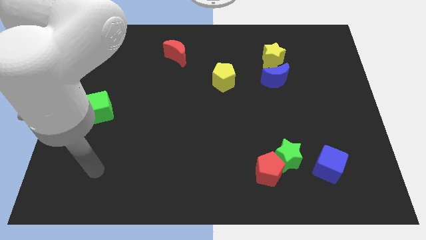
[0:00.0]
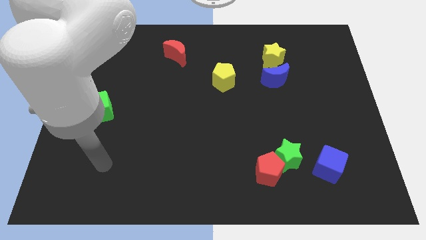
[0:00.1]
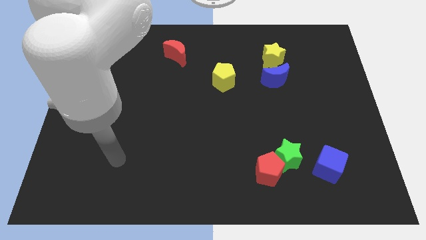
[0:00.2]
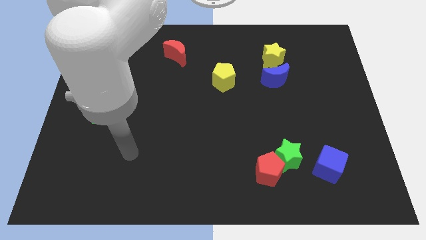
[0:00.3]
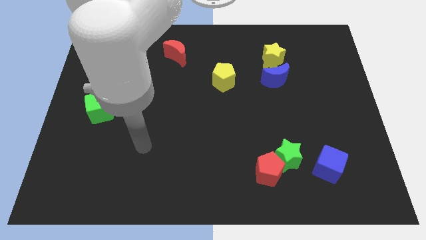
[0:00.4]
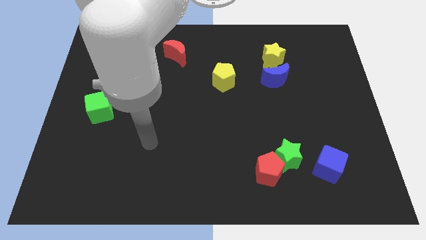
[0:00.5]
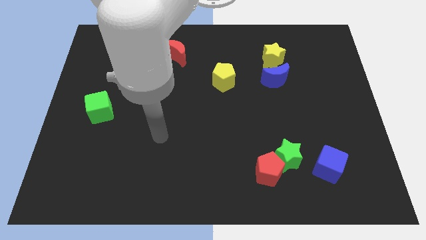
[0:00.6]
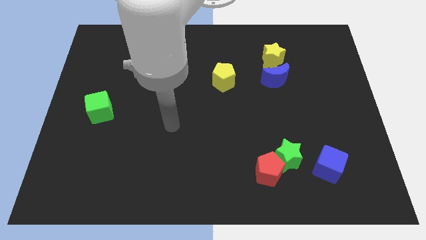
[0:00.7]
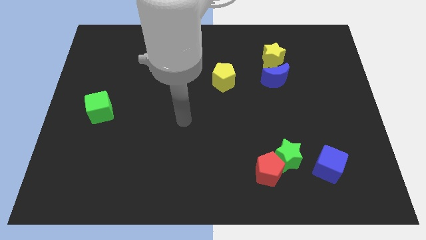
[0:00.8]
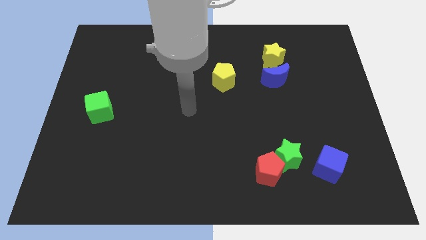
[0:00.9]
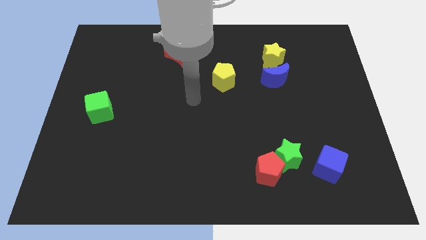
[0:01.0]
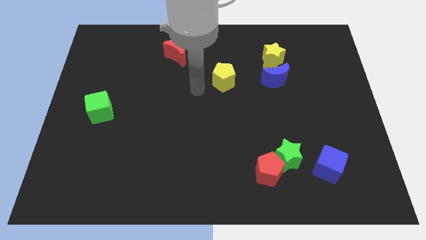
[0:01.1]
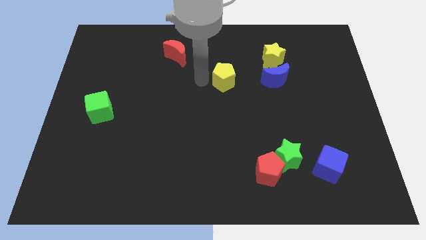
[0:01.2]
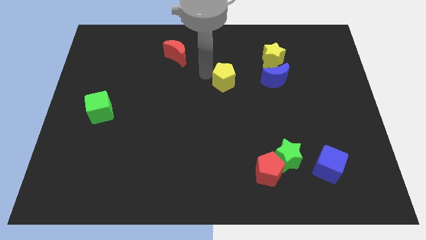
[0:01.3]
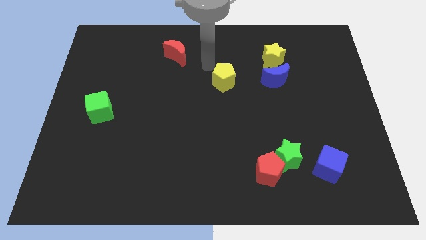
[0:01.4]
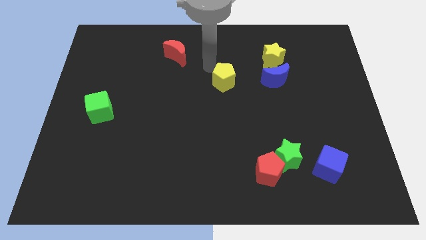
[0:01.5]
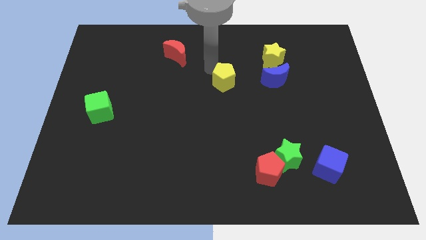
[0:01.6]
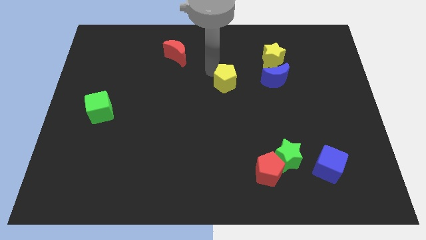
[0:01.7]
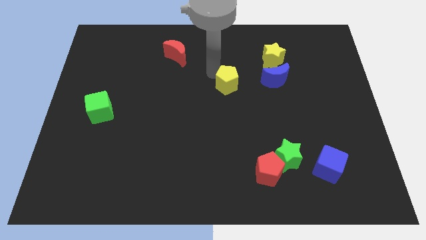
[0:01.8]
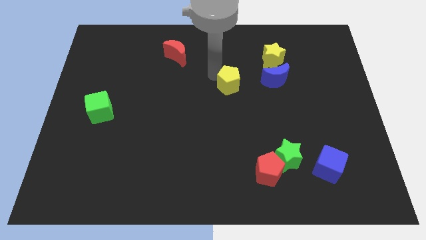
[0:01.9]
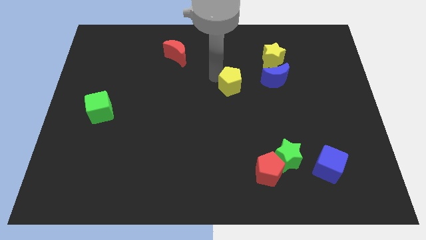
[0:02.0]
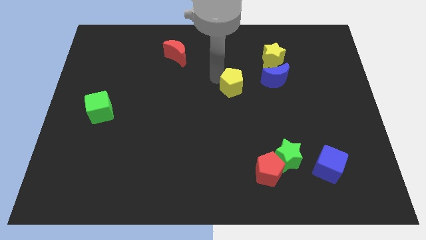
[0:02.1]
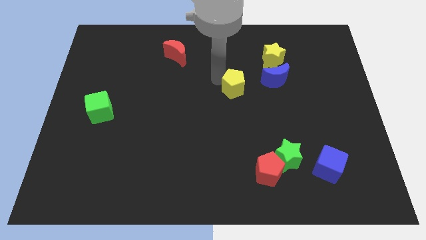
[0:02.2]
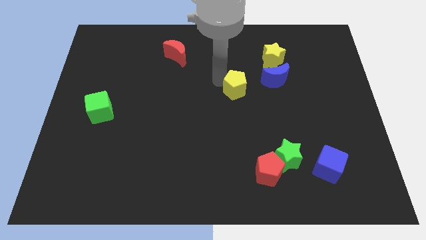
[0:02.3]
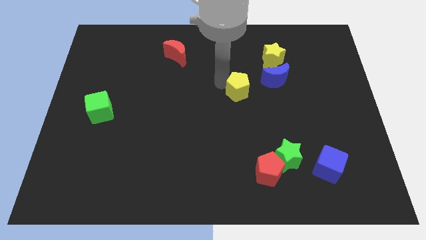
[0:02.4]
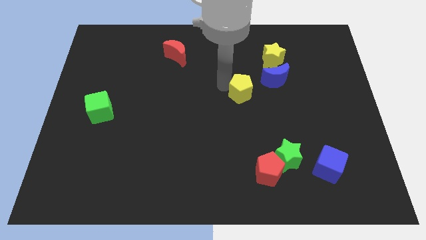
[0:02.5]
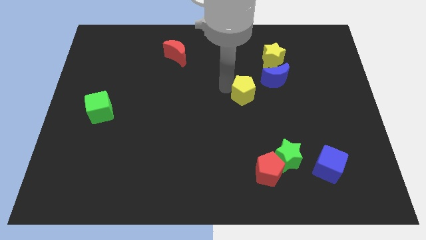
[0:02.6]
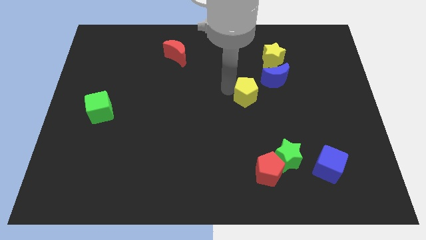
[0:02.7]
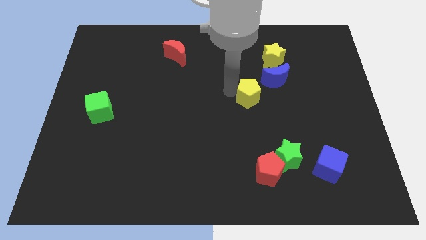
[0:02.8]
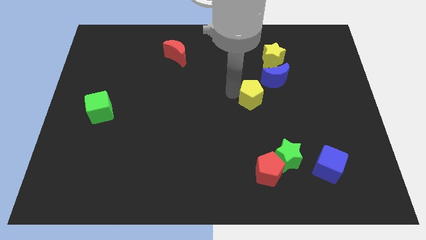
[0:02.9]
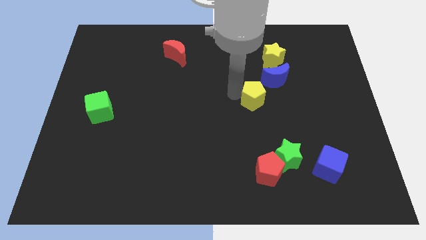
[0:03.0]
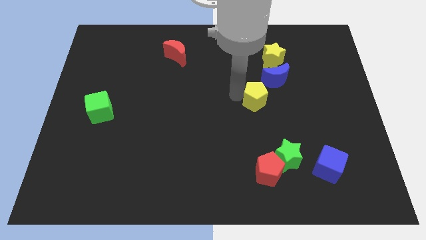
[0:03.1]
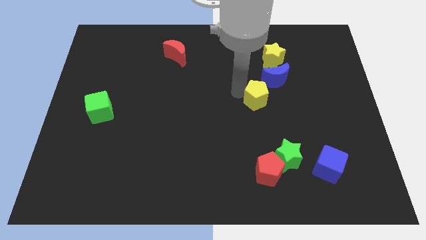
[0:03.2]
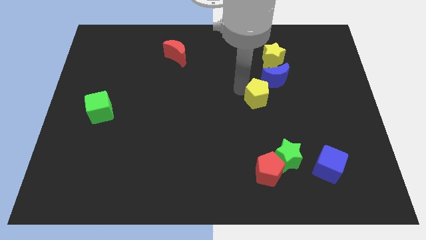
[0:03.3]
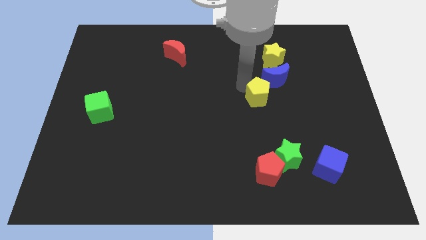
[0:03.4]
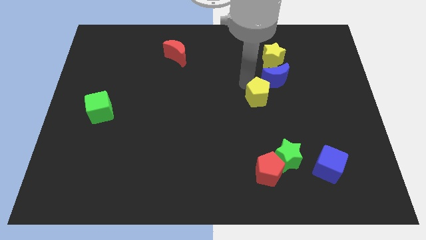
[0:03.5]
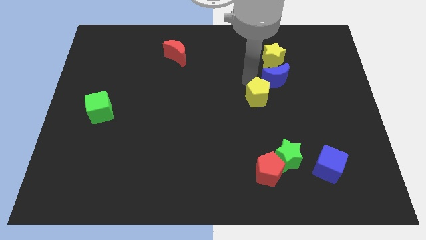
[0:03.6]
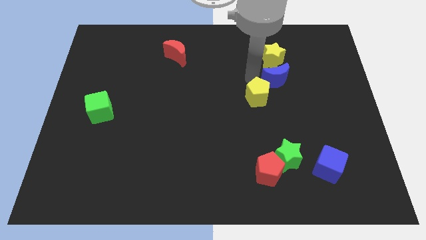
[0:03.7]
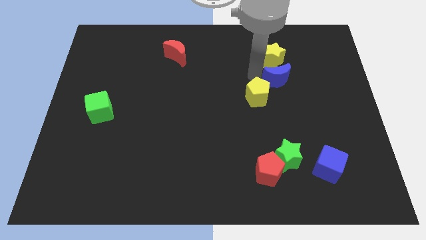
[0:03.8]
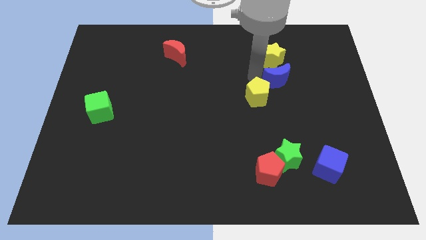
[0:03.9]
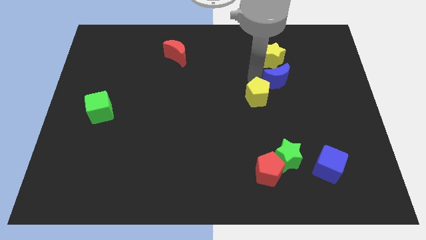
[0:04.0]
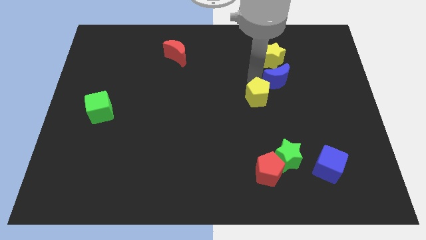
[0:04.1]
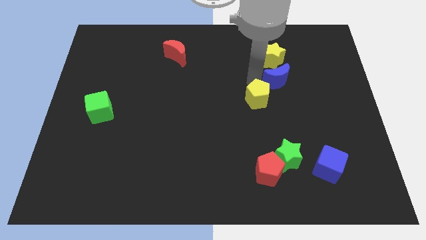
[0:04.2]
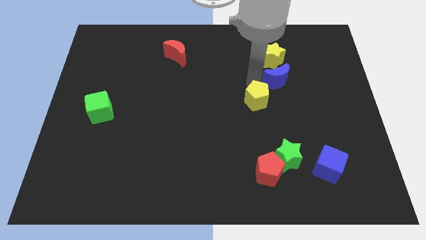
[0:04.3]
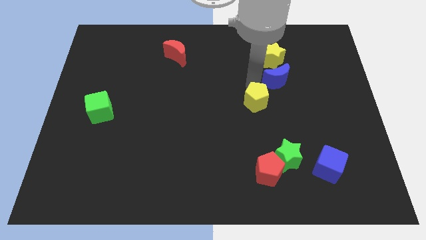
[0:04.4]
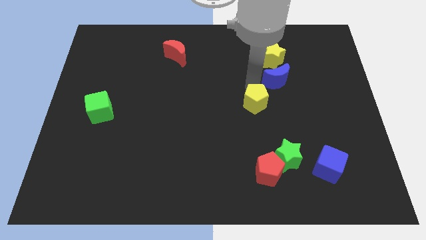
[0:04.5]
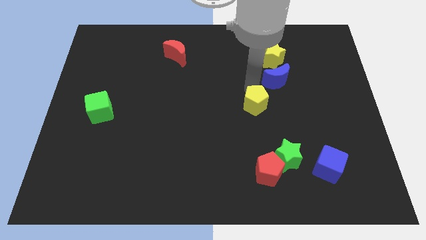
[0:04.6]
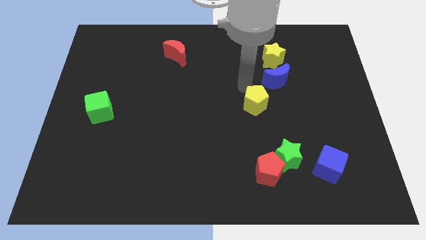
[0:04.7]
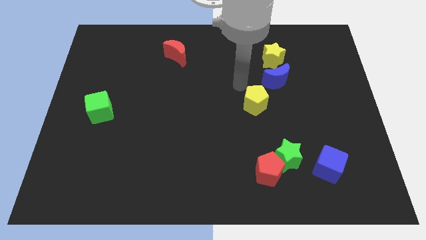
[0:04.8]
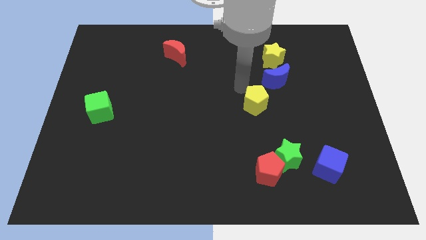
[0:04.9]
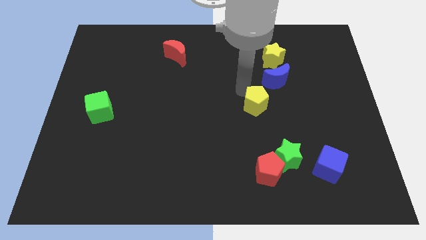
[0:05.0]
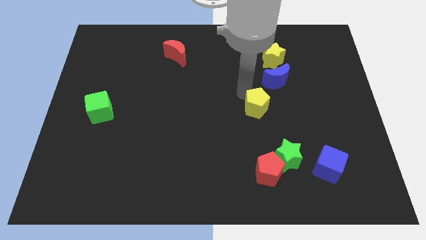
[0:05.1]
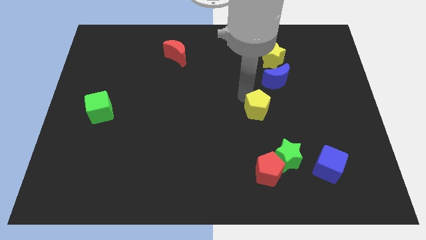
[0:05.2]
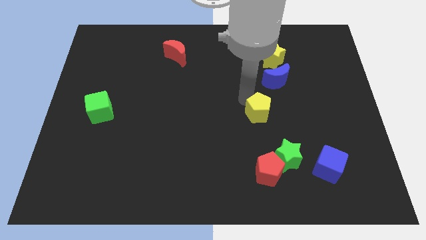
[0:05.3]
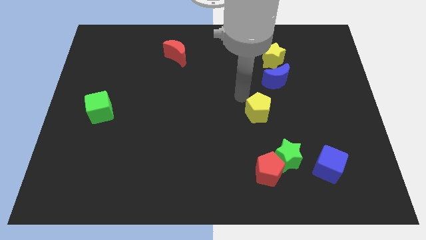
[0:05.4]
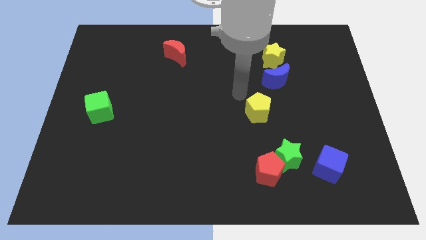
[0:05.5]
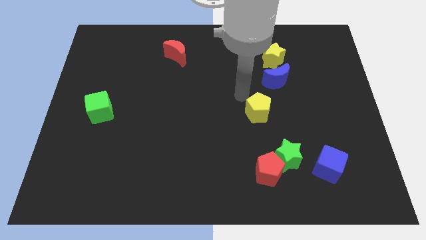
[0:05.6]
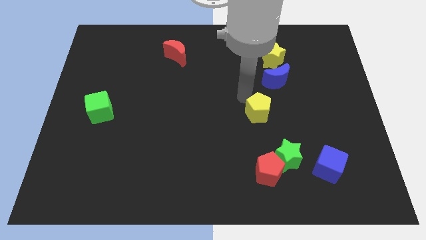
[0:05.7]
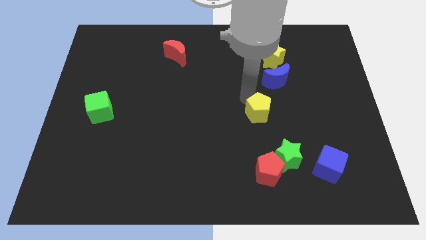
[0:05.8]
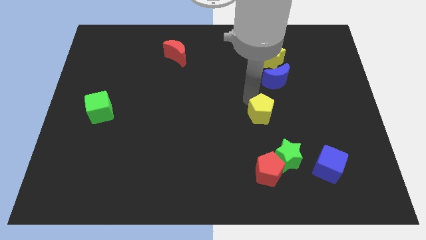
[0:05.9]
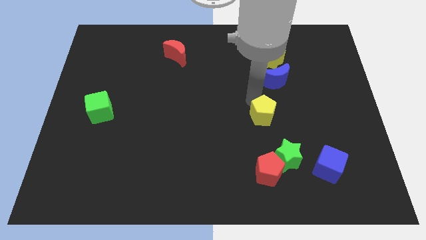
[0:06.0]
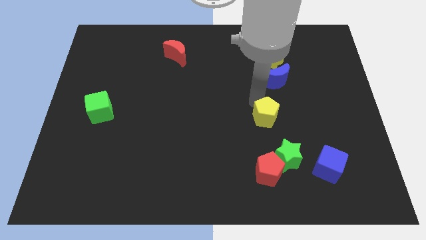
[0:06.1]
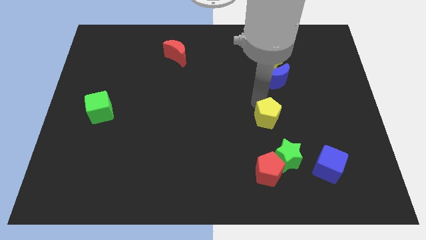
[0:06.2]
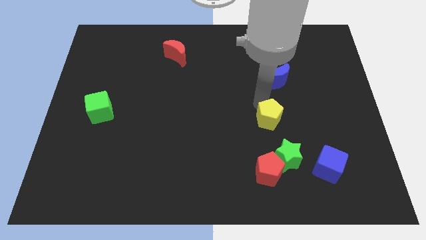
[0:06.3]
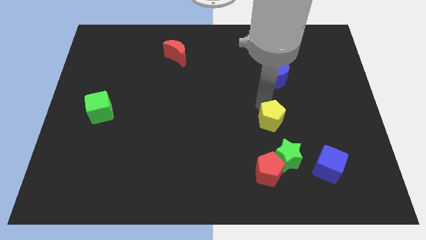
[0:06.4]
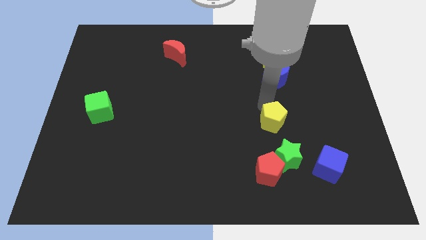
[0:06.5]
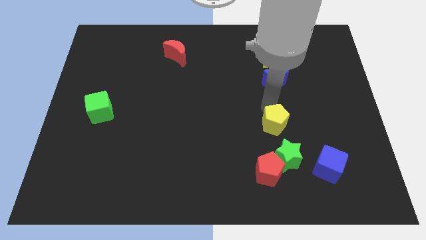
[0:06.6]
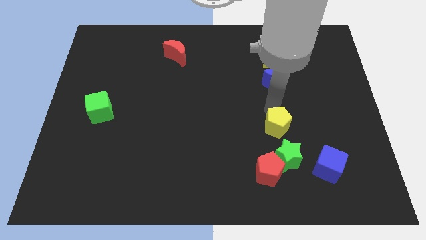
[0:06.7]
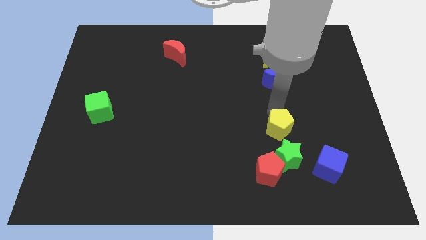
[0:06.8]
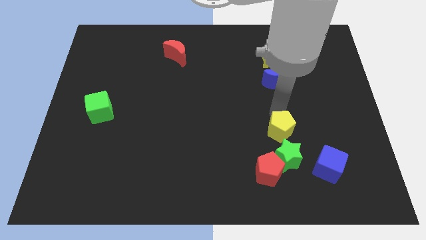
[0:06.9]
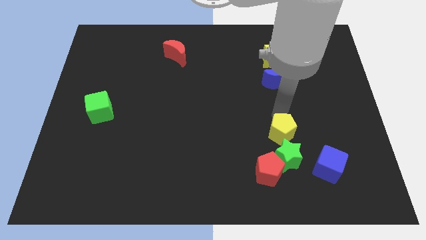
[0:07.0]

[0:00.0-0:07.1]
push the yellow pentagon to the top right of the red pentagon
